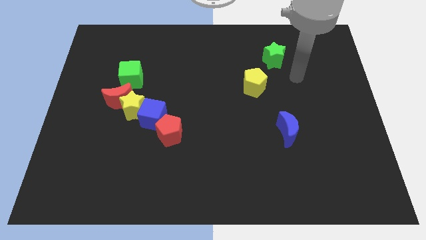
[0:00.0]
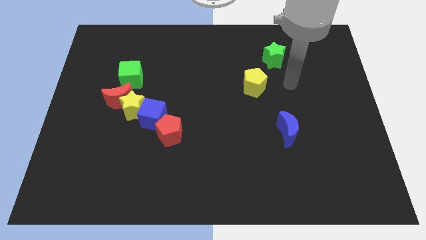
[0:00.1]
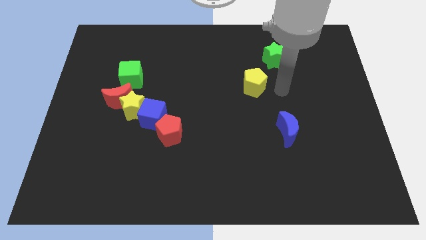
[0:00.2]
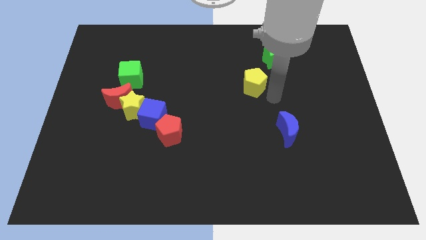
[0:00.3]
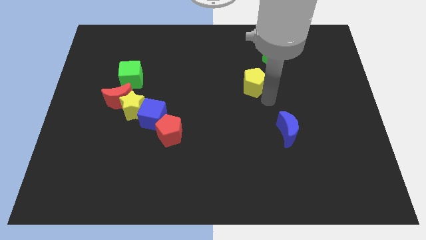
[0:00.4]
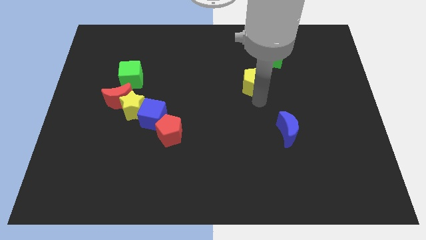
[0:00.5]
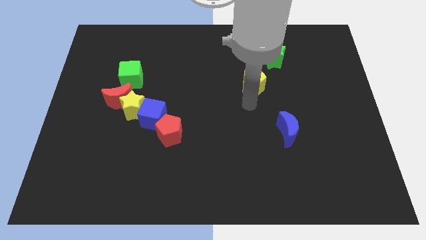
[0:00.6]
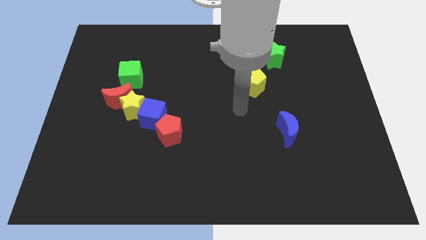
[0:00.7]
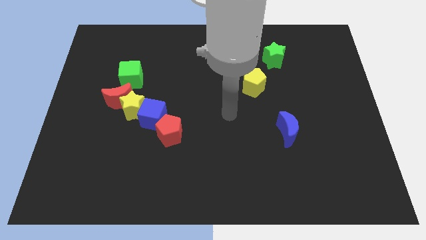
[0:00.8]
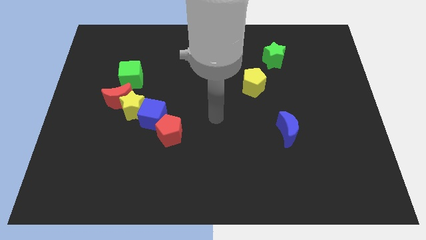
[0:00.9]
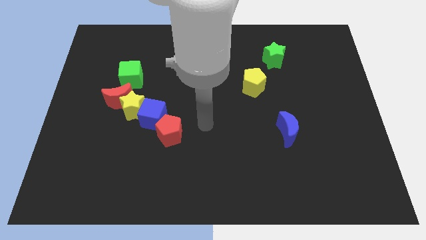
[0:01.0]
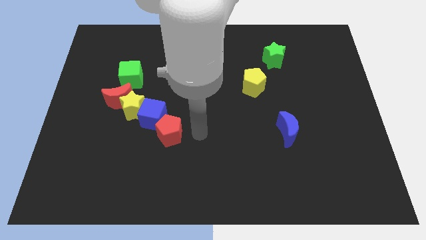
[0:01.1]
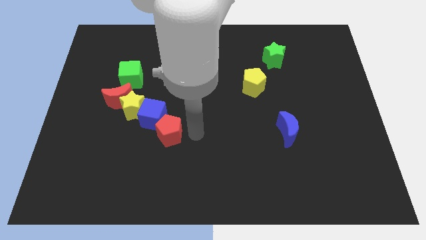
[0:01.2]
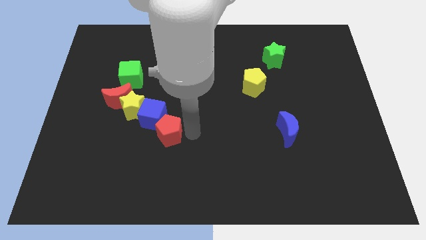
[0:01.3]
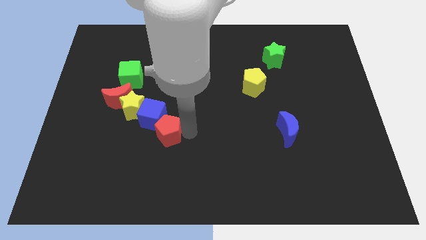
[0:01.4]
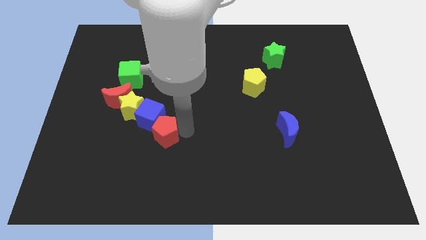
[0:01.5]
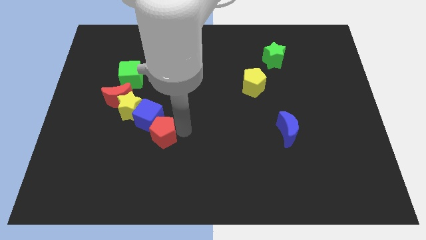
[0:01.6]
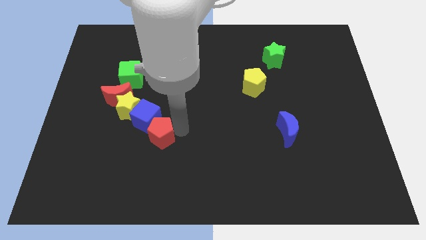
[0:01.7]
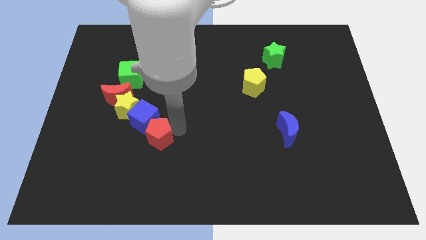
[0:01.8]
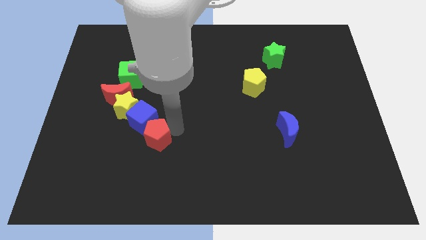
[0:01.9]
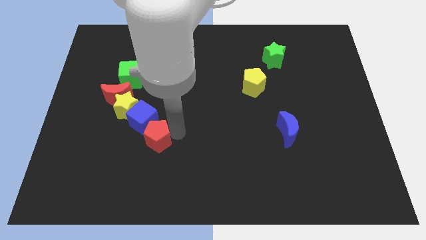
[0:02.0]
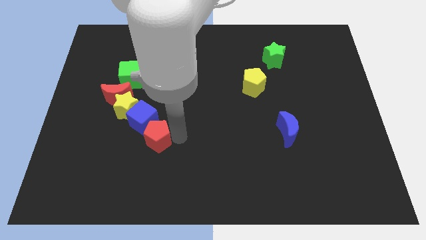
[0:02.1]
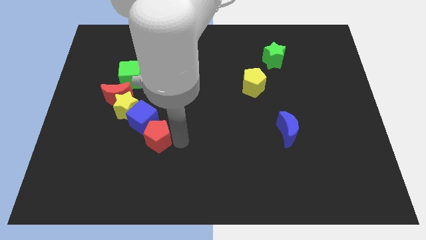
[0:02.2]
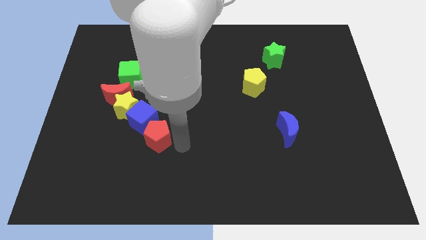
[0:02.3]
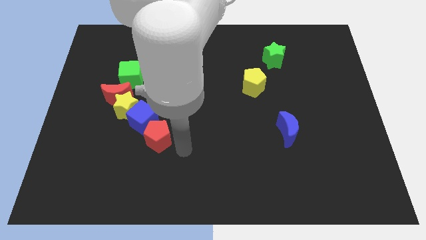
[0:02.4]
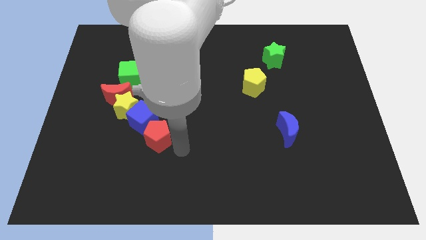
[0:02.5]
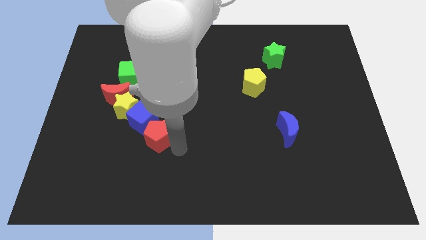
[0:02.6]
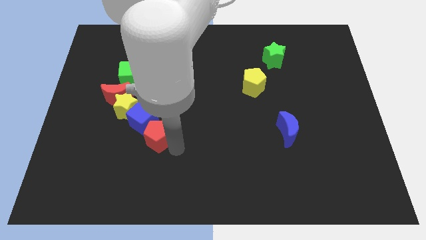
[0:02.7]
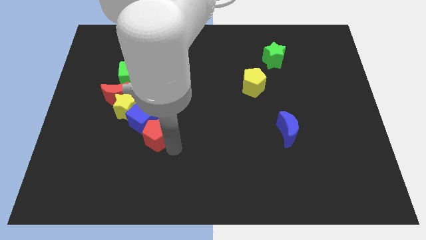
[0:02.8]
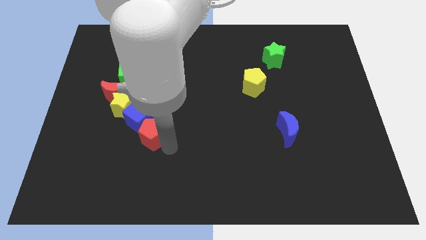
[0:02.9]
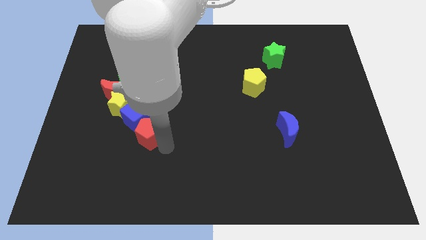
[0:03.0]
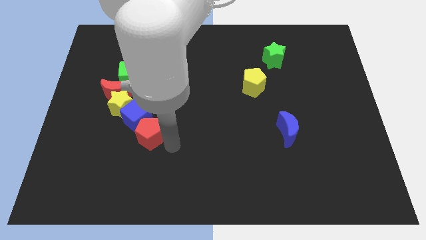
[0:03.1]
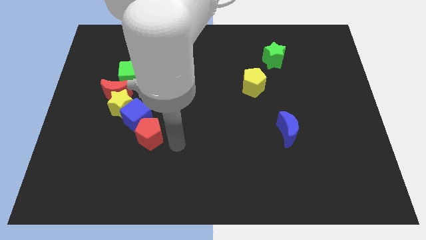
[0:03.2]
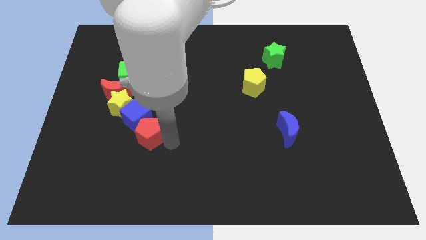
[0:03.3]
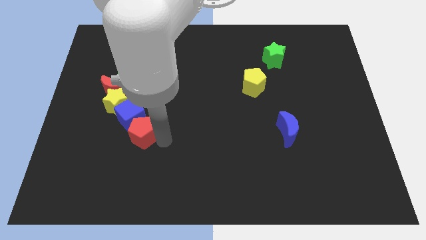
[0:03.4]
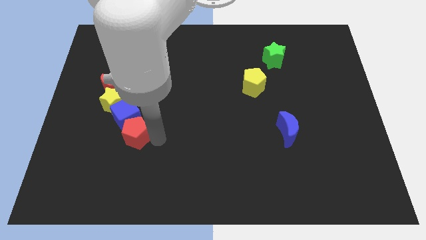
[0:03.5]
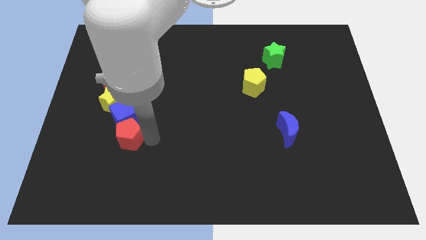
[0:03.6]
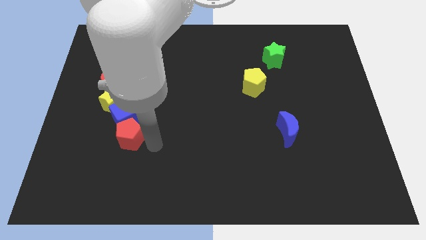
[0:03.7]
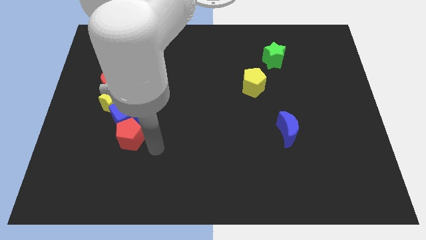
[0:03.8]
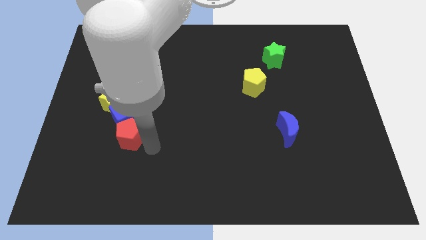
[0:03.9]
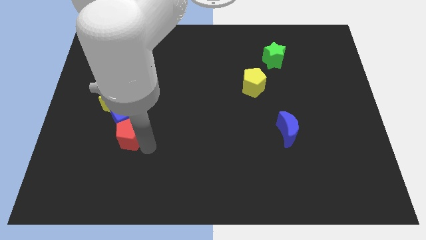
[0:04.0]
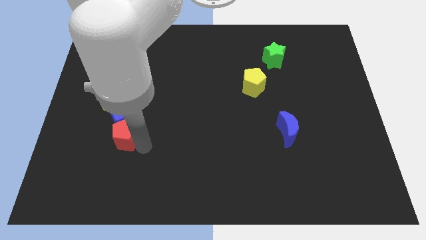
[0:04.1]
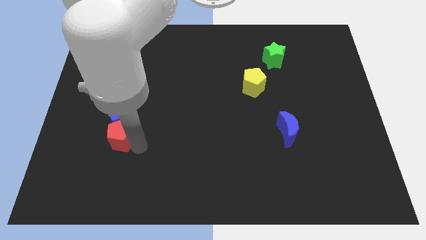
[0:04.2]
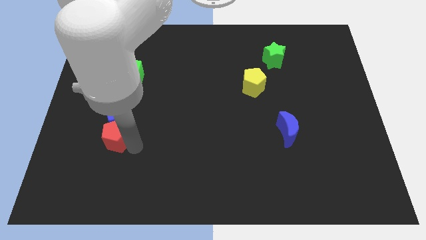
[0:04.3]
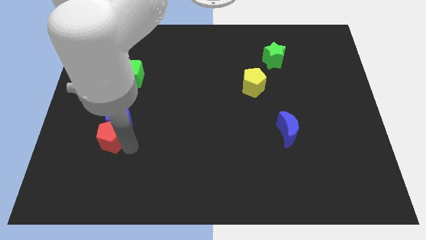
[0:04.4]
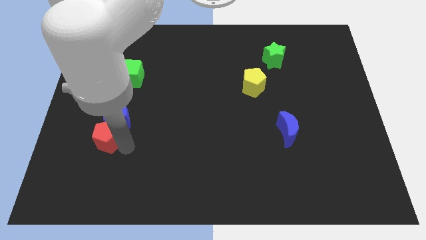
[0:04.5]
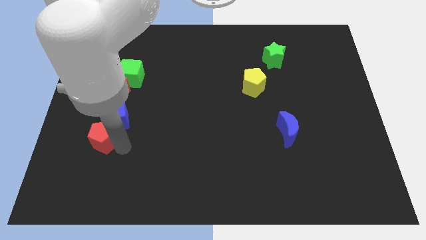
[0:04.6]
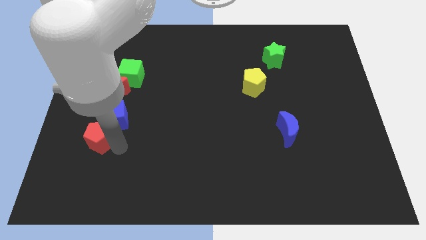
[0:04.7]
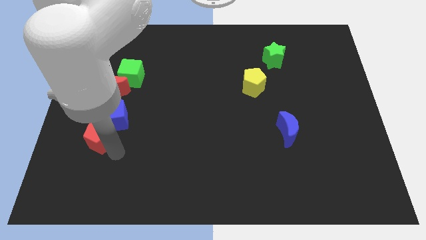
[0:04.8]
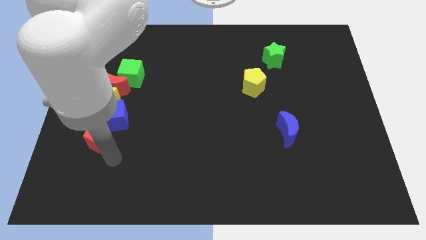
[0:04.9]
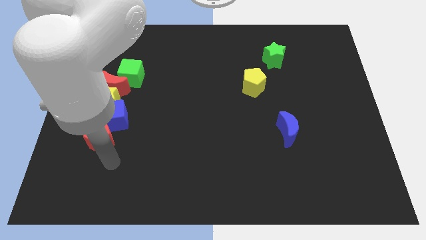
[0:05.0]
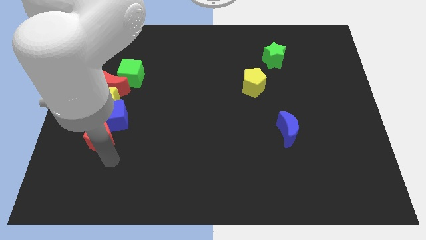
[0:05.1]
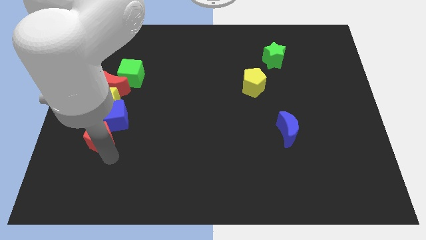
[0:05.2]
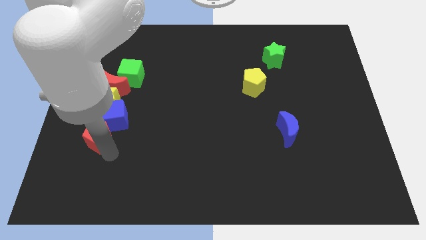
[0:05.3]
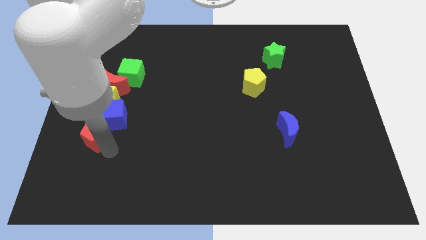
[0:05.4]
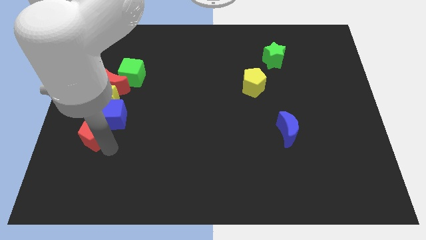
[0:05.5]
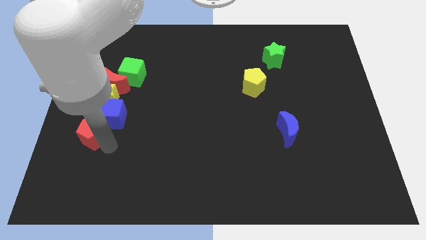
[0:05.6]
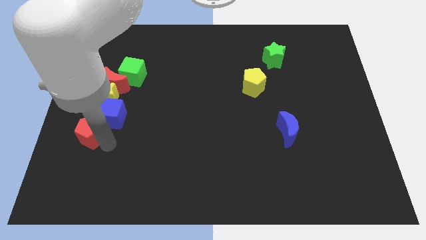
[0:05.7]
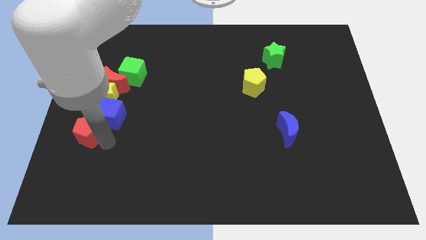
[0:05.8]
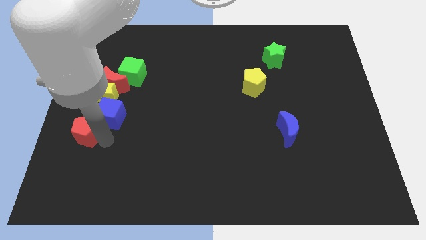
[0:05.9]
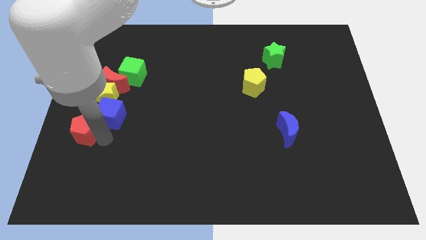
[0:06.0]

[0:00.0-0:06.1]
put the red pentagon to the left side of the board
